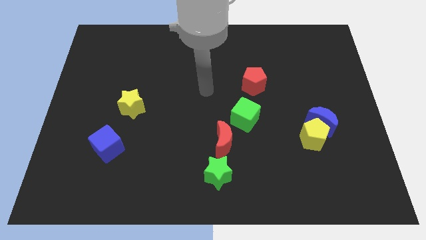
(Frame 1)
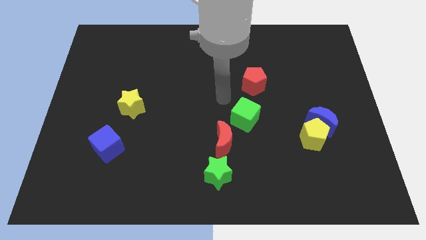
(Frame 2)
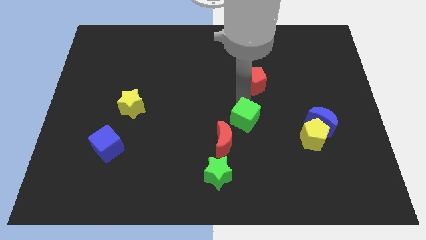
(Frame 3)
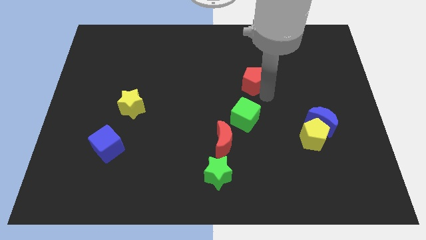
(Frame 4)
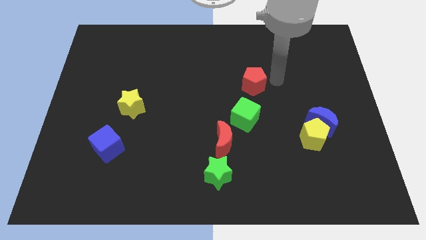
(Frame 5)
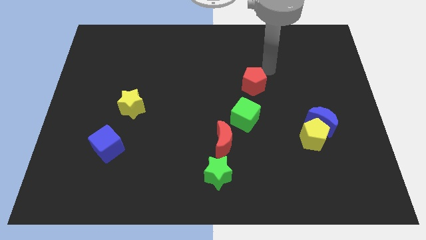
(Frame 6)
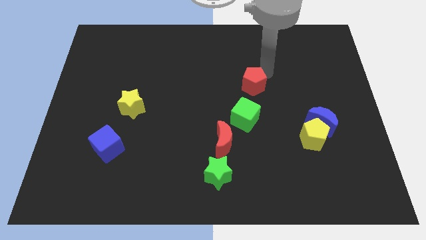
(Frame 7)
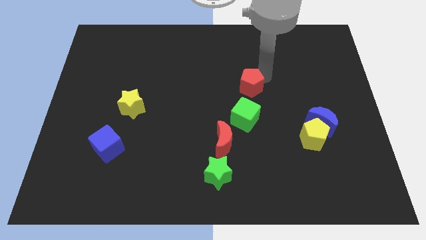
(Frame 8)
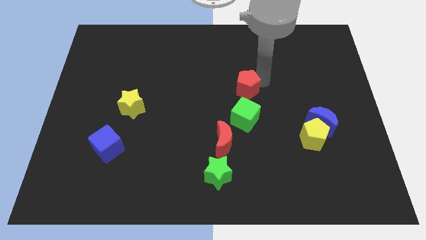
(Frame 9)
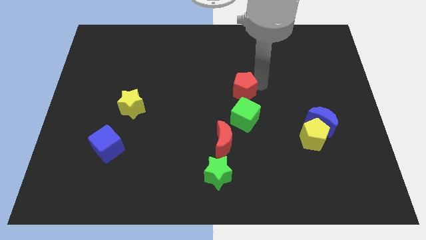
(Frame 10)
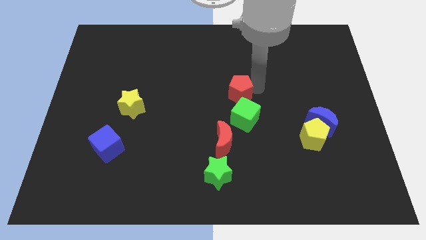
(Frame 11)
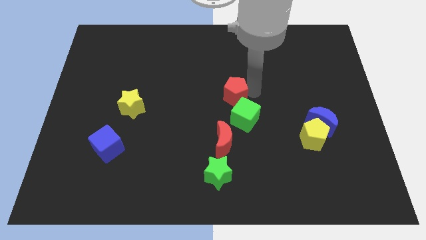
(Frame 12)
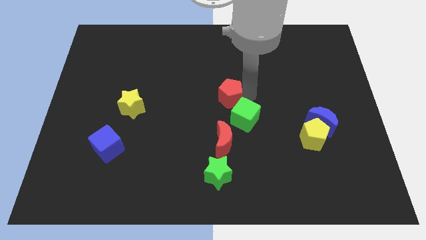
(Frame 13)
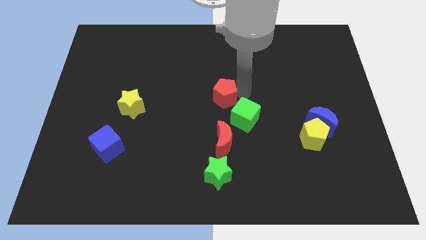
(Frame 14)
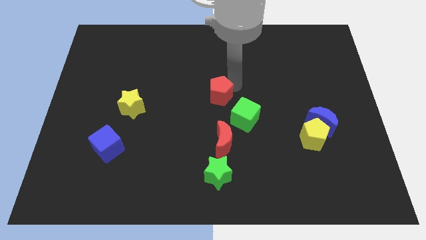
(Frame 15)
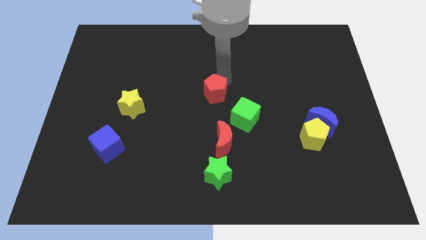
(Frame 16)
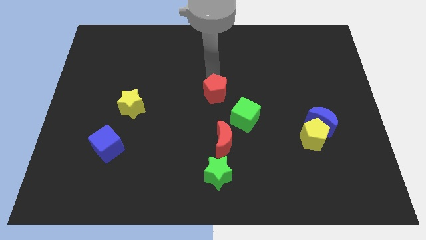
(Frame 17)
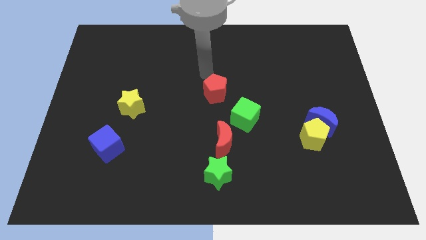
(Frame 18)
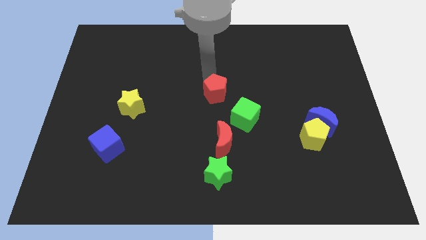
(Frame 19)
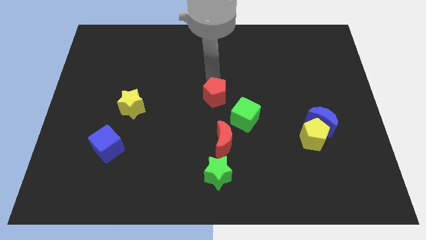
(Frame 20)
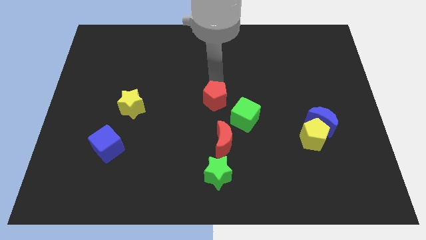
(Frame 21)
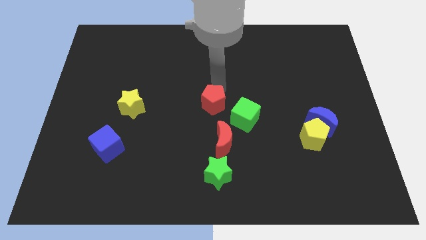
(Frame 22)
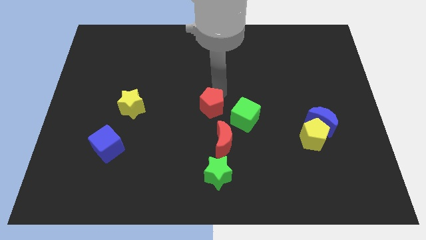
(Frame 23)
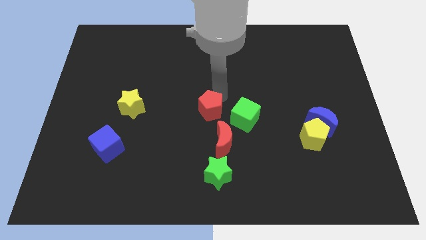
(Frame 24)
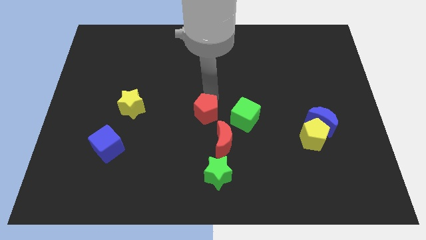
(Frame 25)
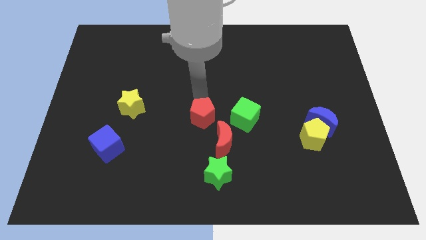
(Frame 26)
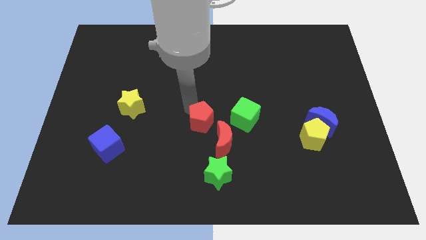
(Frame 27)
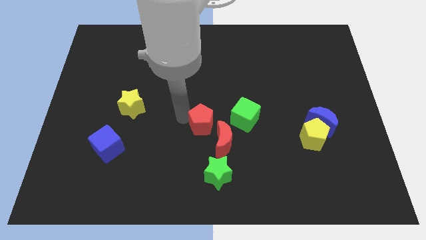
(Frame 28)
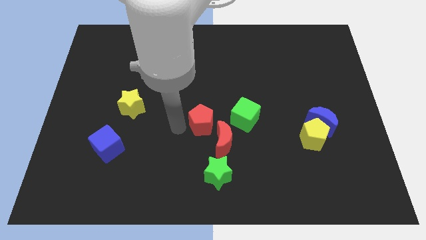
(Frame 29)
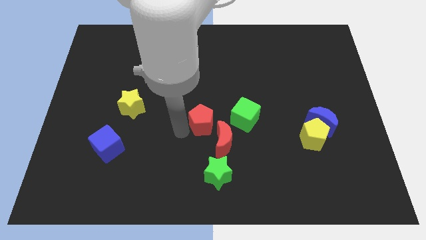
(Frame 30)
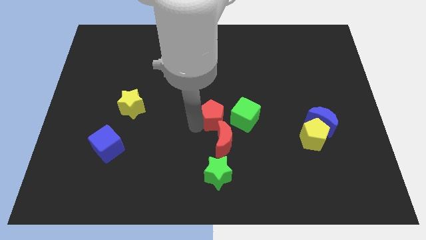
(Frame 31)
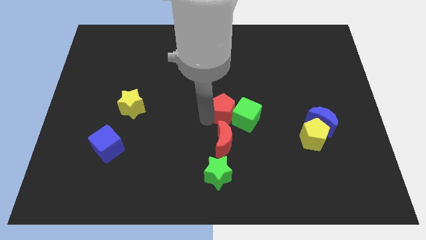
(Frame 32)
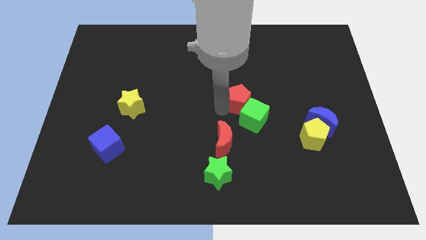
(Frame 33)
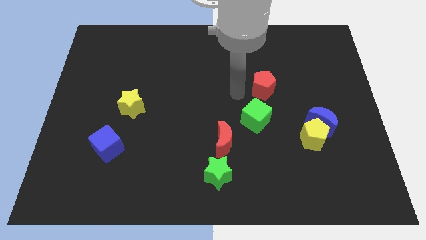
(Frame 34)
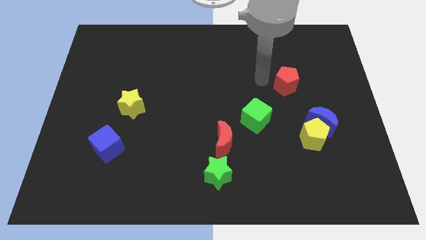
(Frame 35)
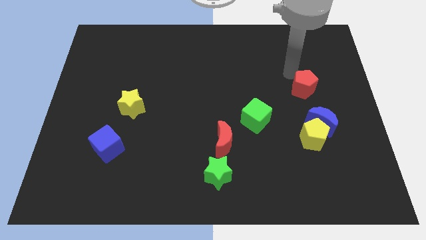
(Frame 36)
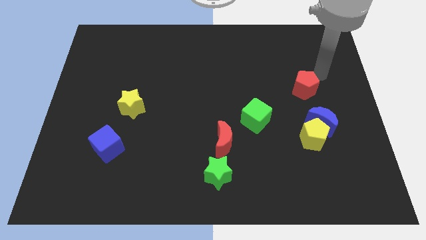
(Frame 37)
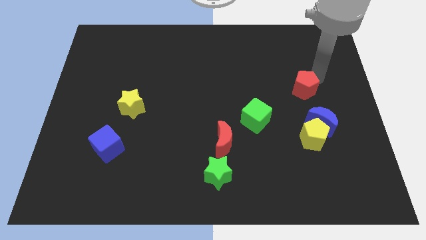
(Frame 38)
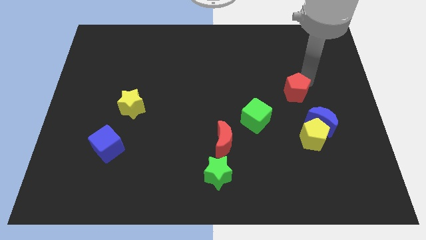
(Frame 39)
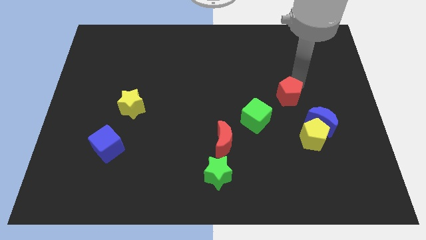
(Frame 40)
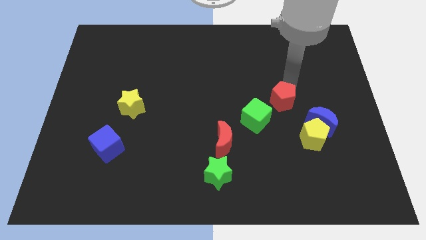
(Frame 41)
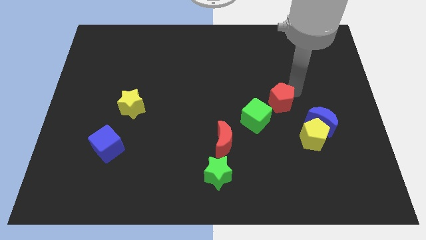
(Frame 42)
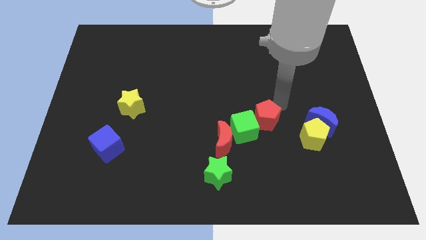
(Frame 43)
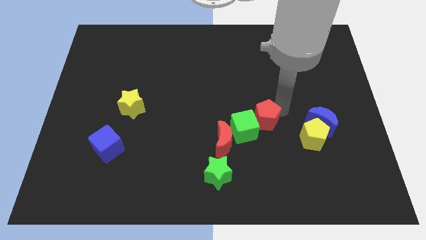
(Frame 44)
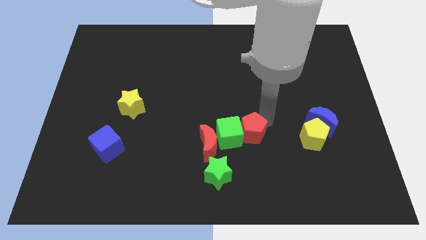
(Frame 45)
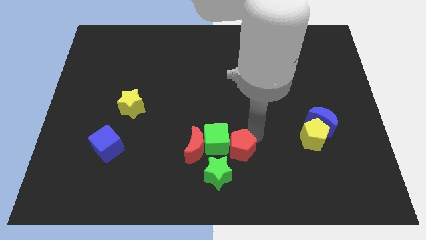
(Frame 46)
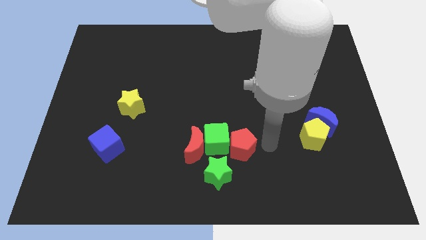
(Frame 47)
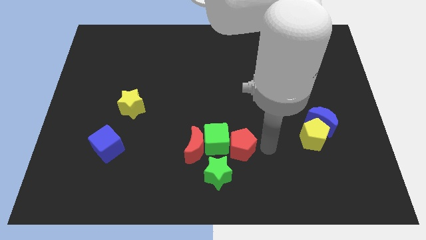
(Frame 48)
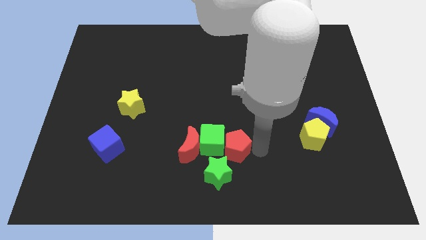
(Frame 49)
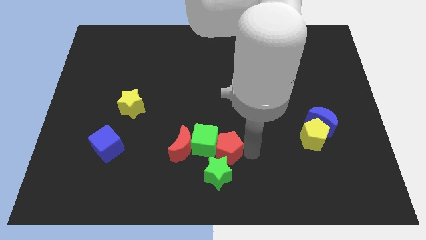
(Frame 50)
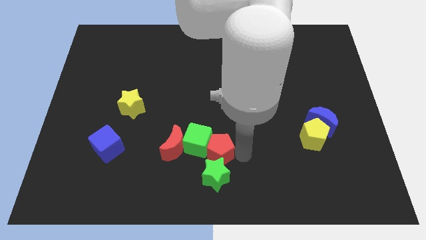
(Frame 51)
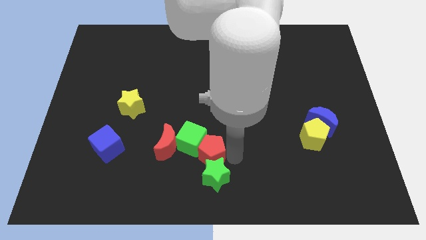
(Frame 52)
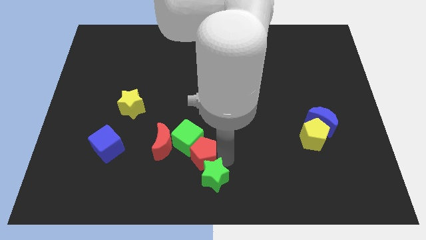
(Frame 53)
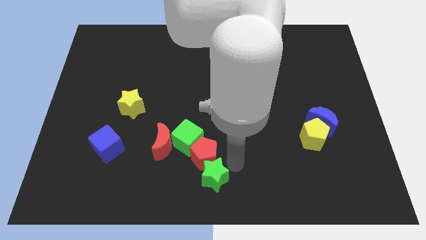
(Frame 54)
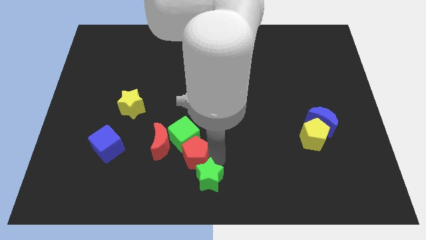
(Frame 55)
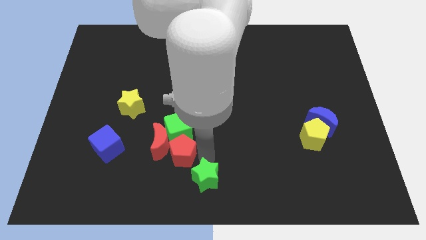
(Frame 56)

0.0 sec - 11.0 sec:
move the red pentagon towards the red moon

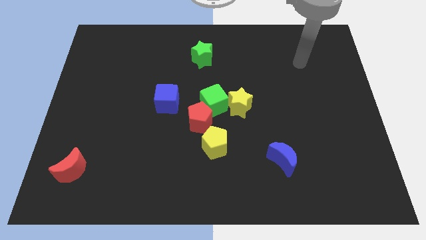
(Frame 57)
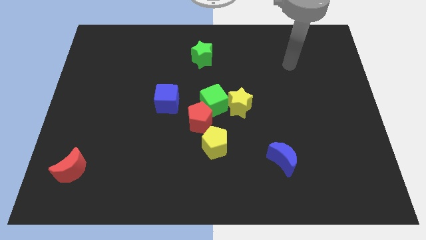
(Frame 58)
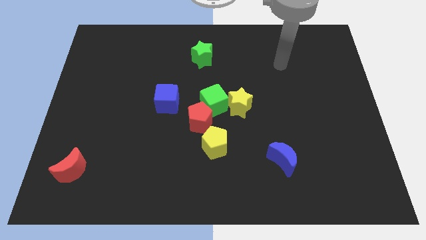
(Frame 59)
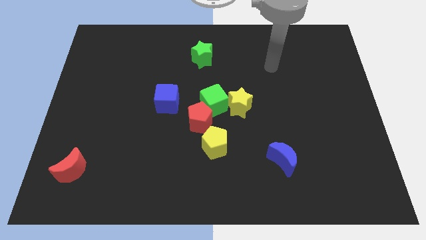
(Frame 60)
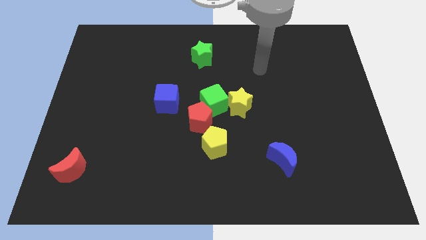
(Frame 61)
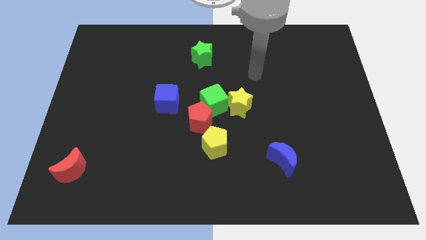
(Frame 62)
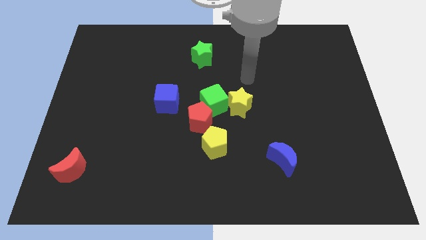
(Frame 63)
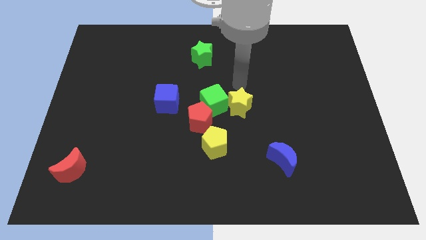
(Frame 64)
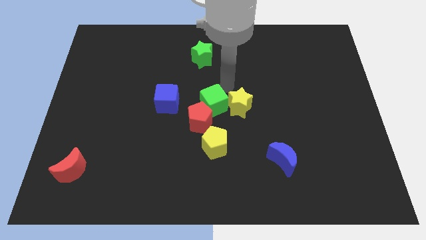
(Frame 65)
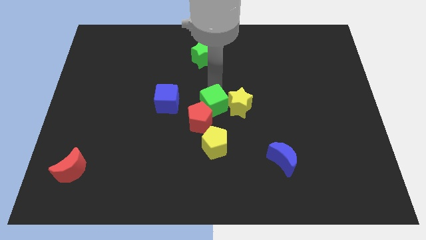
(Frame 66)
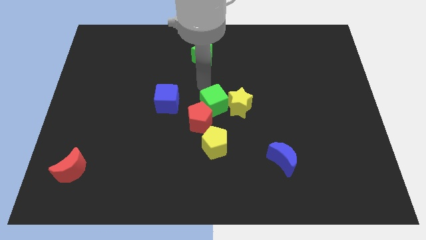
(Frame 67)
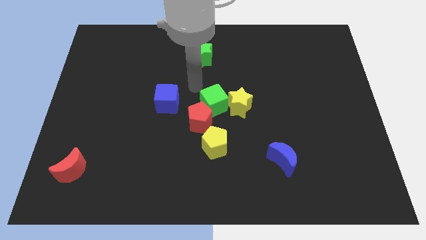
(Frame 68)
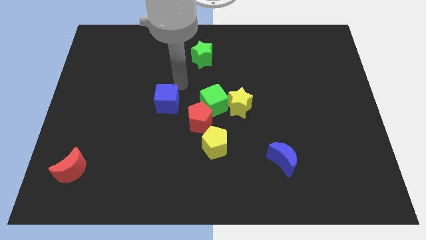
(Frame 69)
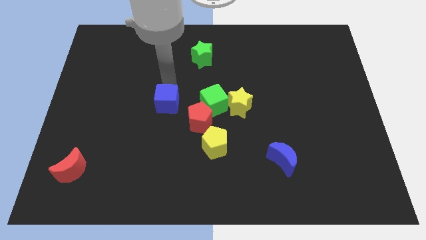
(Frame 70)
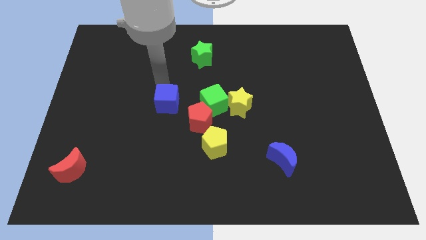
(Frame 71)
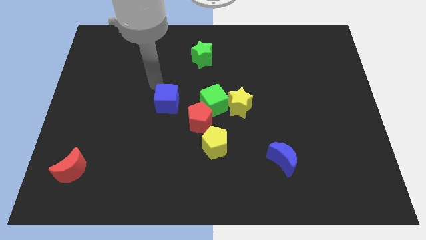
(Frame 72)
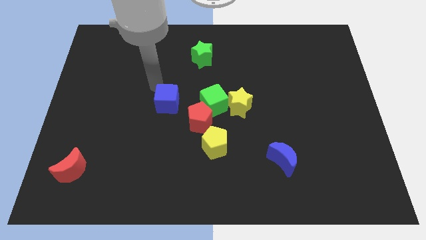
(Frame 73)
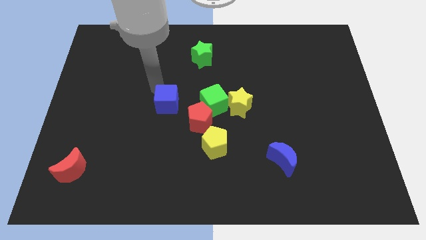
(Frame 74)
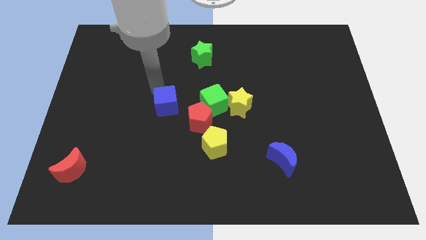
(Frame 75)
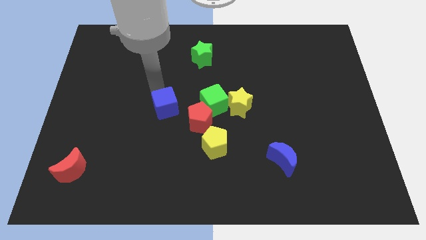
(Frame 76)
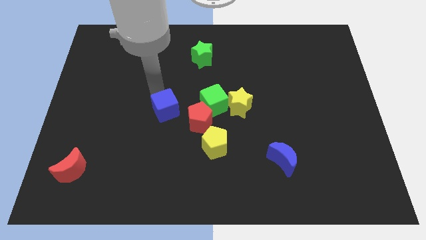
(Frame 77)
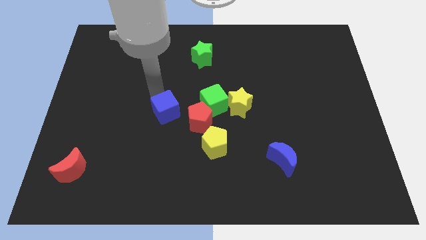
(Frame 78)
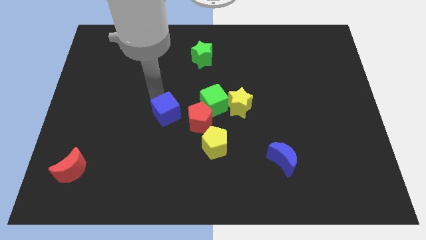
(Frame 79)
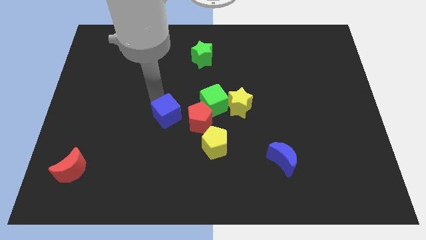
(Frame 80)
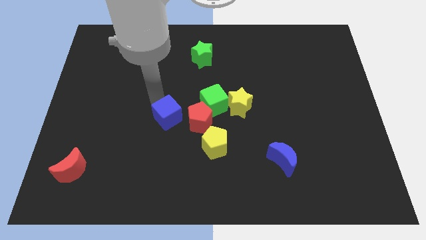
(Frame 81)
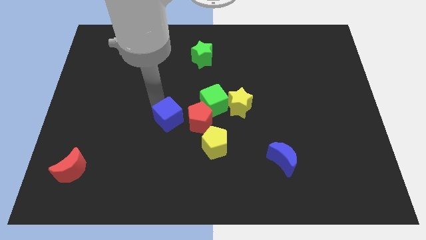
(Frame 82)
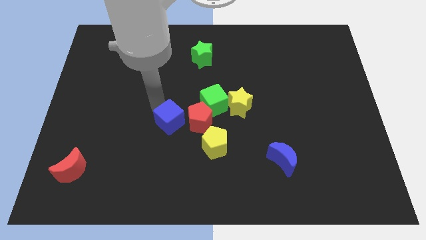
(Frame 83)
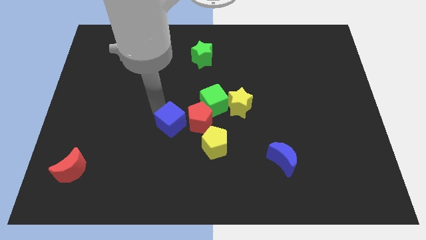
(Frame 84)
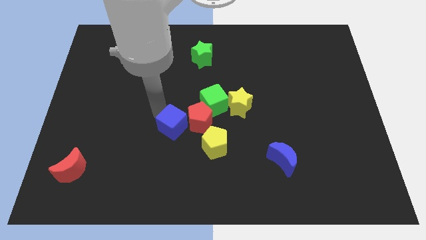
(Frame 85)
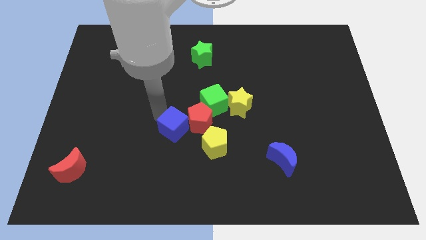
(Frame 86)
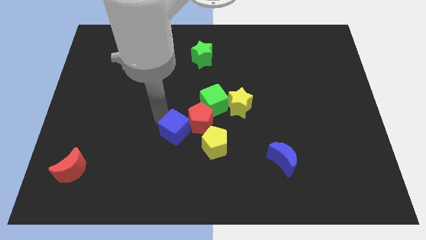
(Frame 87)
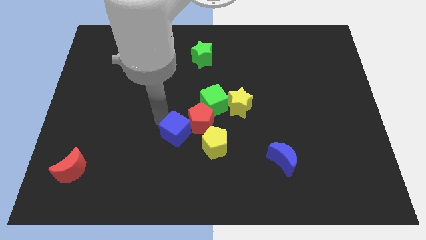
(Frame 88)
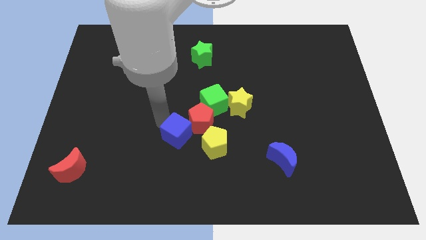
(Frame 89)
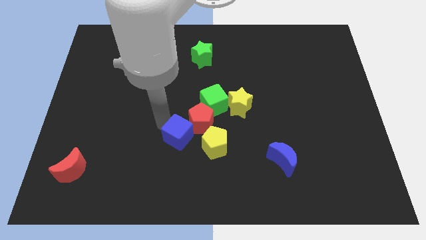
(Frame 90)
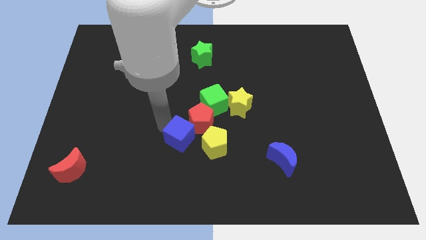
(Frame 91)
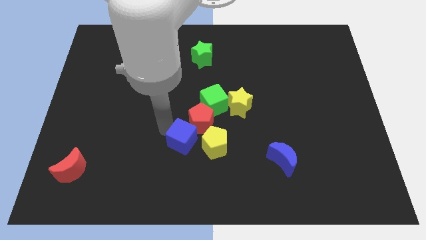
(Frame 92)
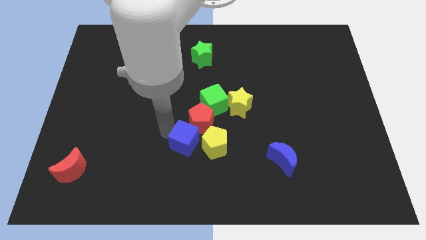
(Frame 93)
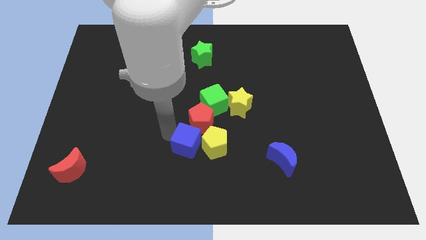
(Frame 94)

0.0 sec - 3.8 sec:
put the blue cube close to the yellow pentagon
